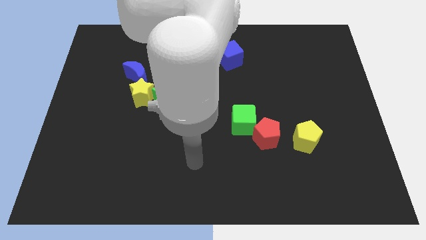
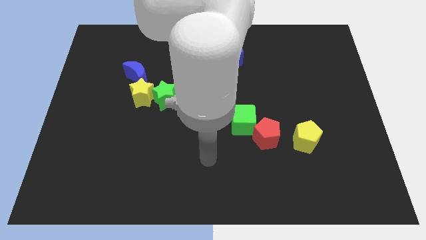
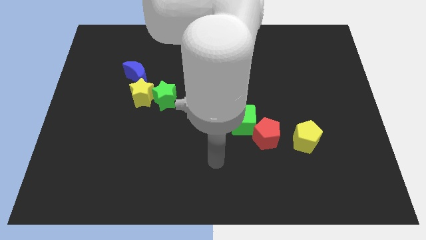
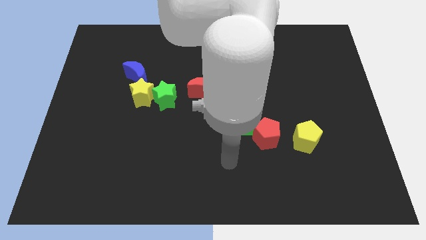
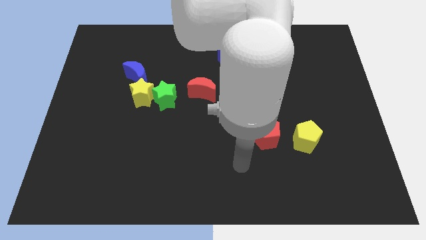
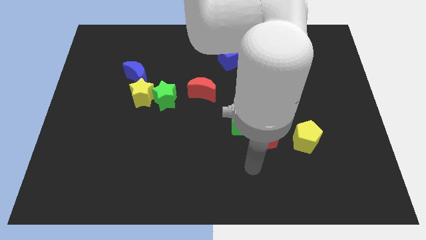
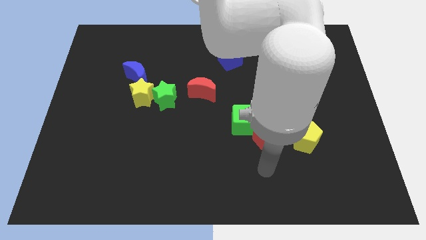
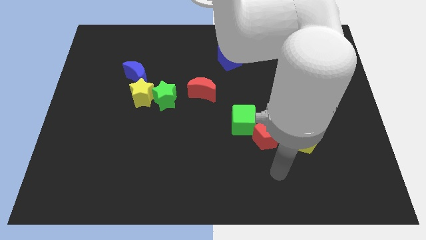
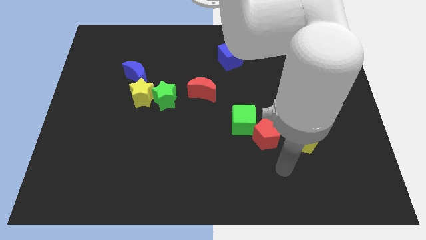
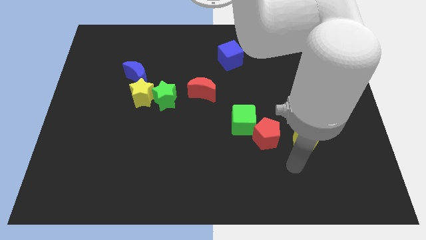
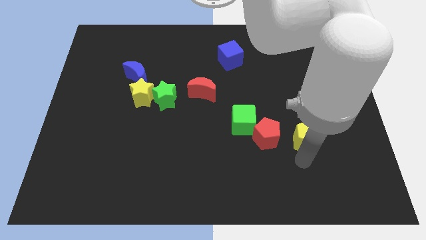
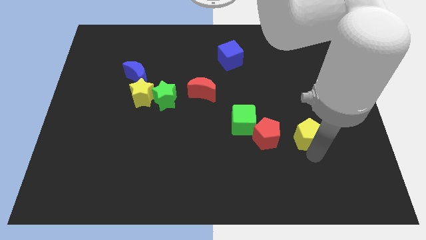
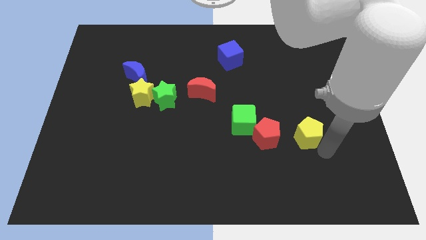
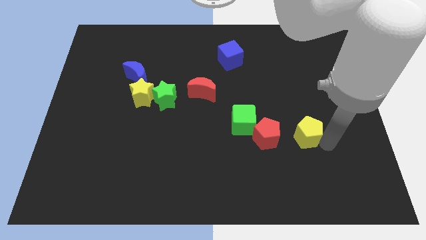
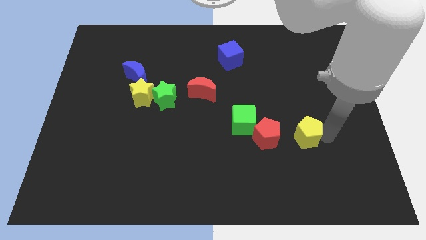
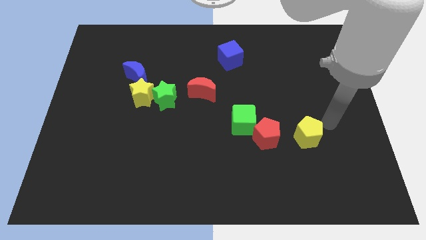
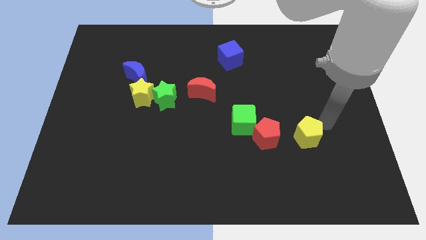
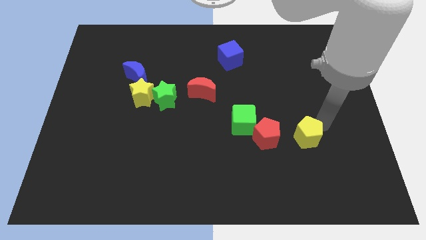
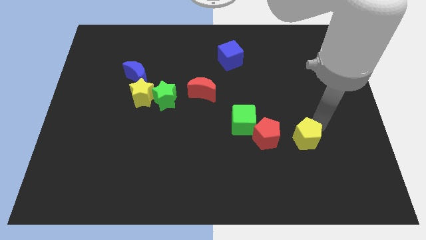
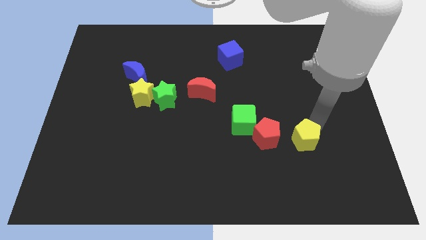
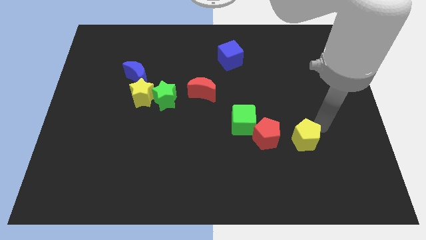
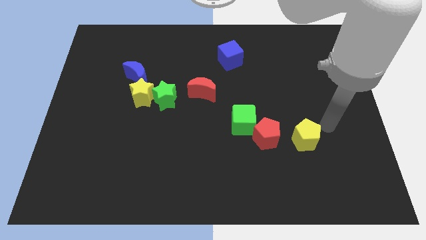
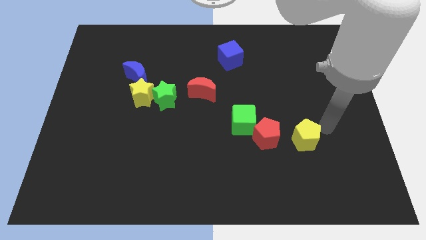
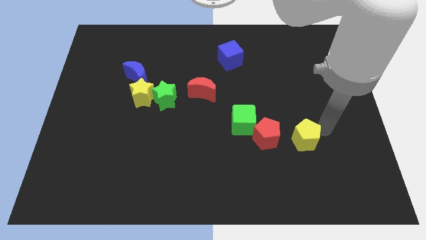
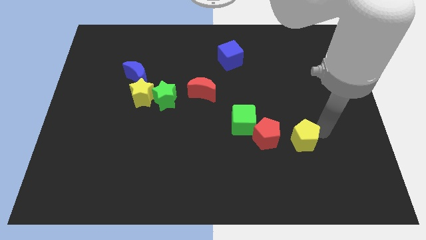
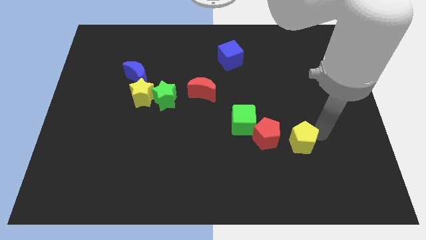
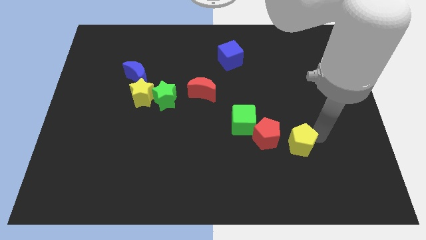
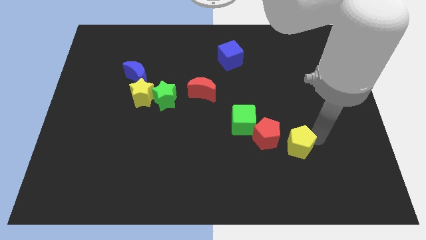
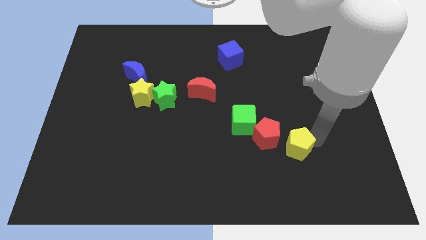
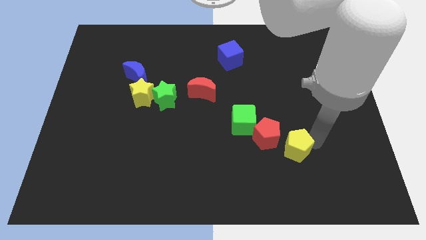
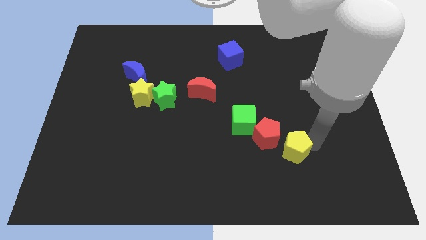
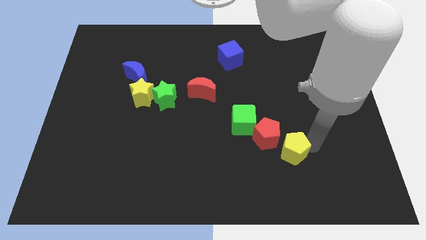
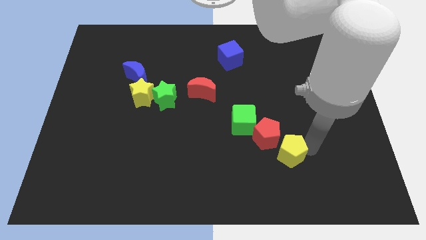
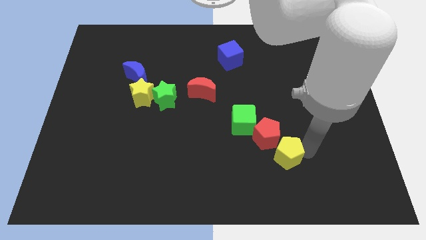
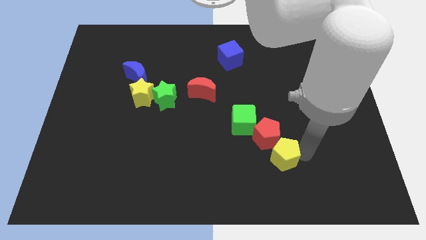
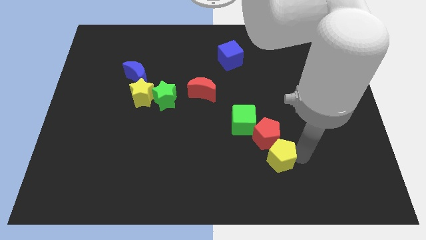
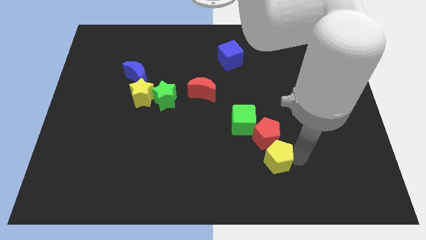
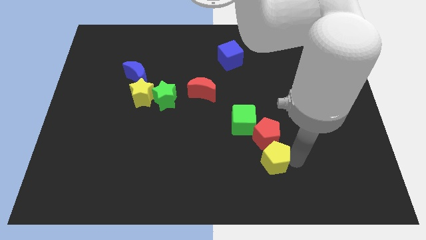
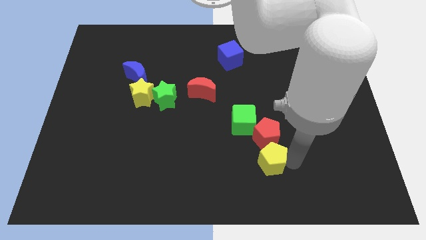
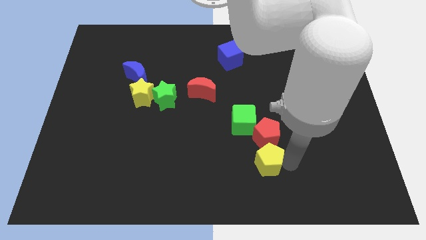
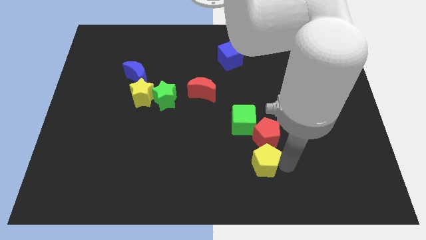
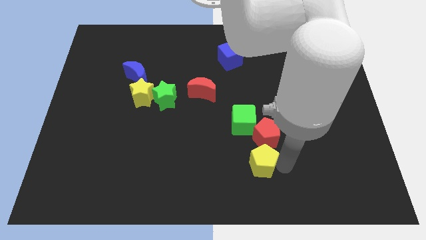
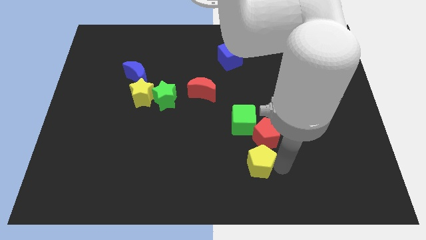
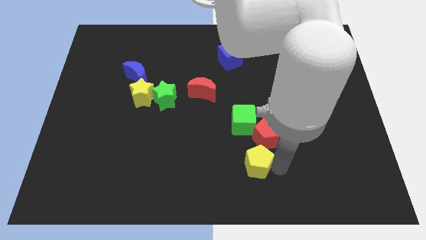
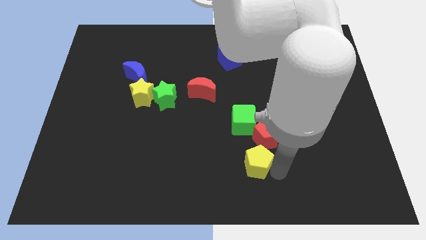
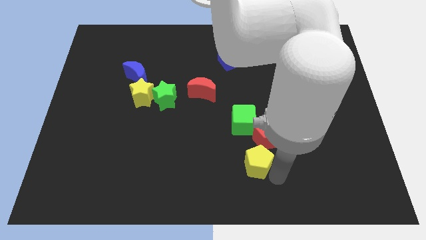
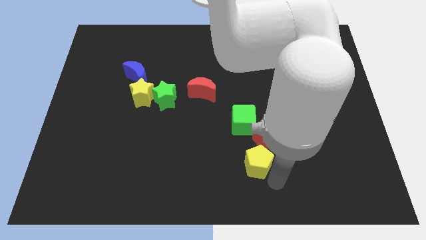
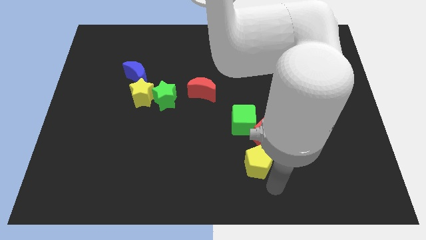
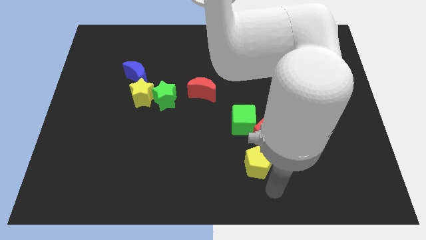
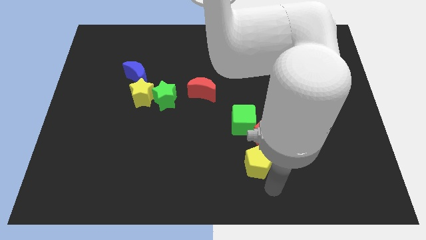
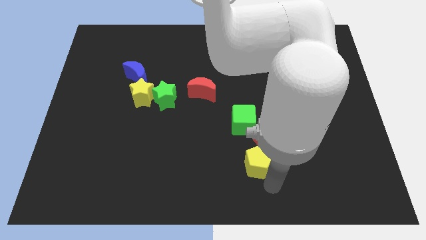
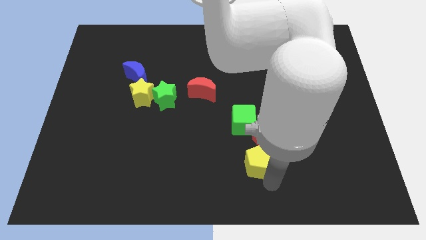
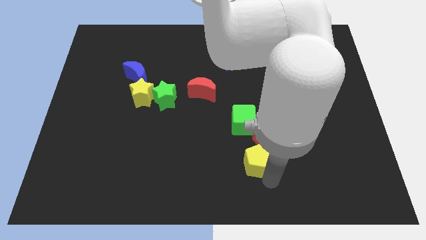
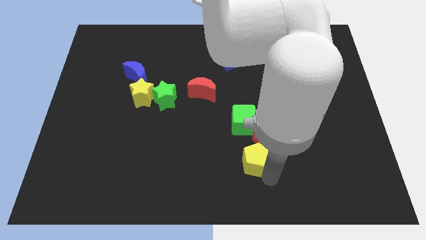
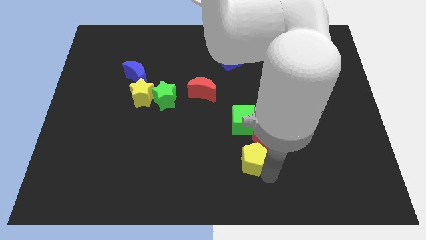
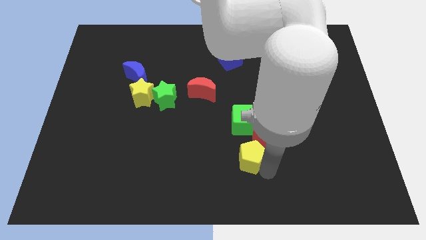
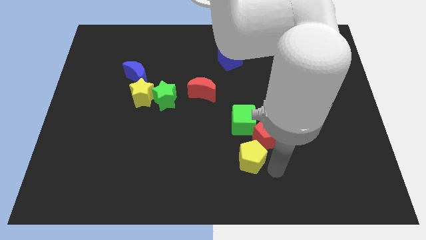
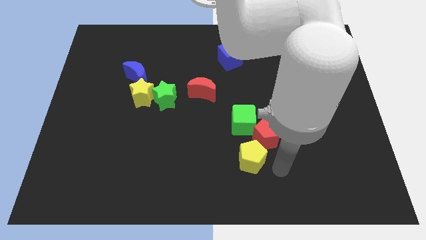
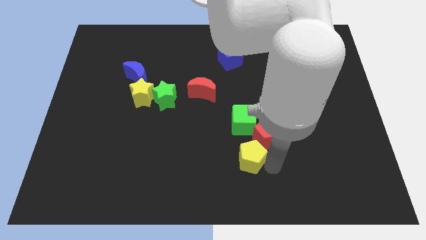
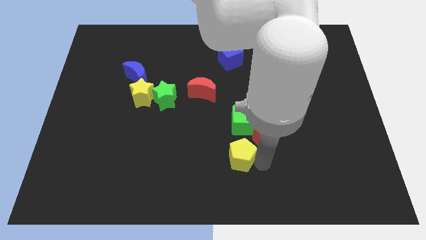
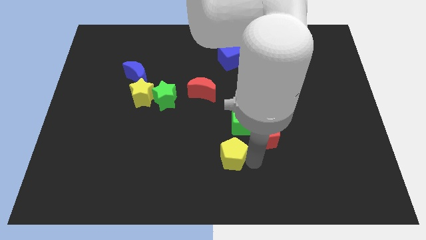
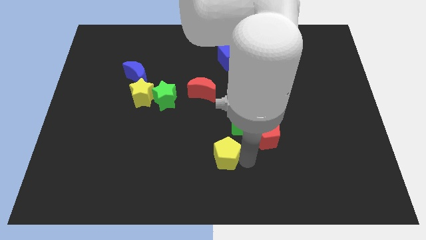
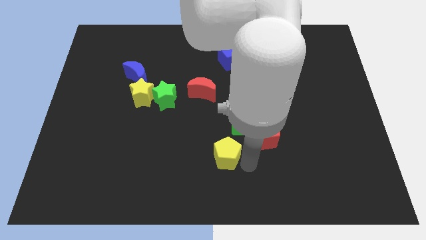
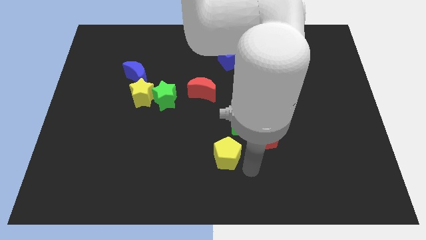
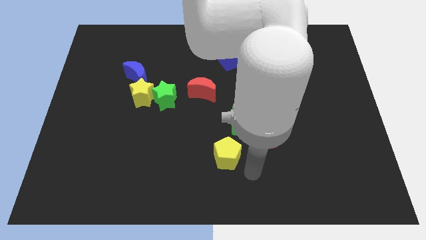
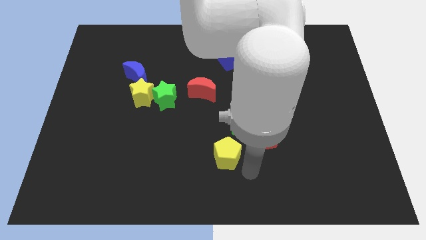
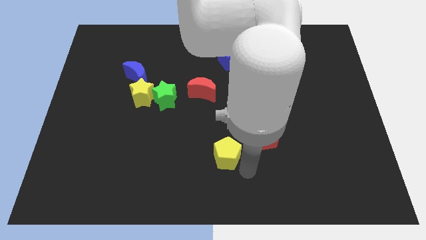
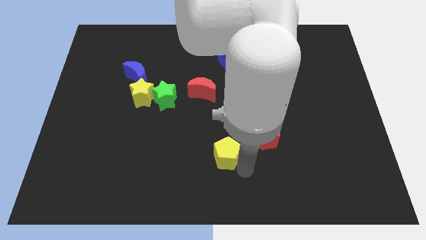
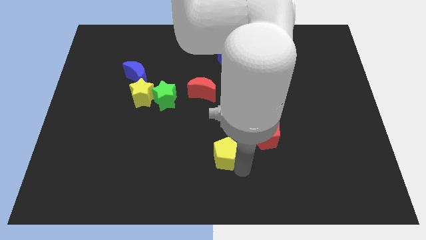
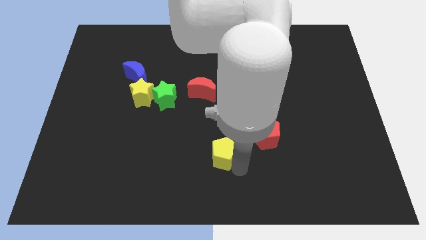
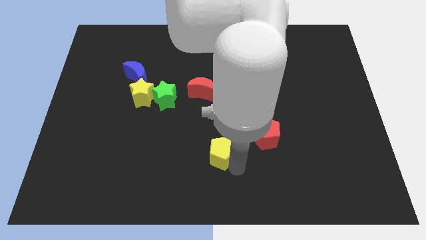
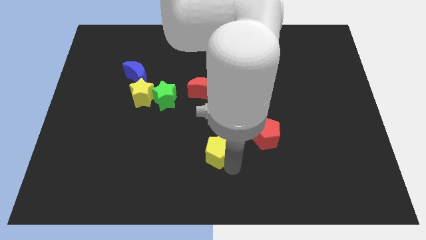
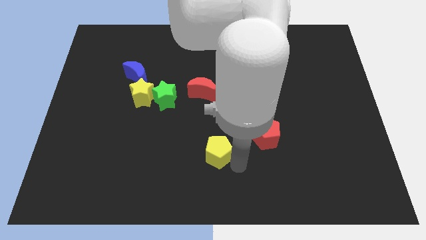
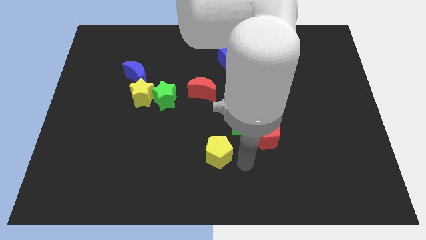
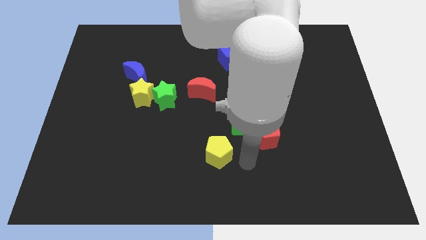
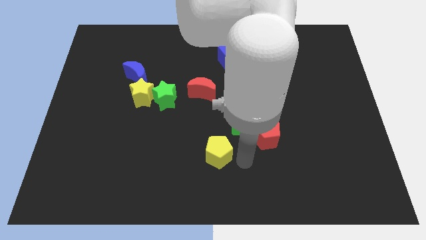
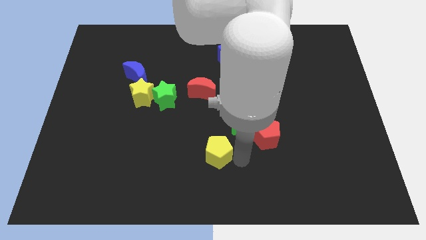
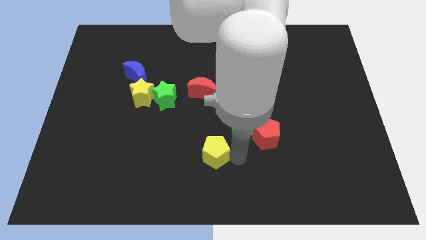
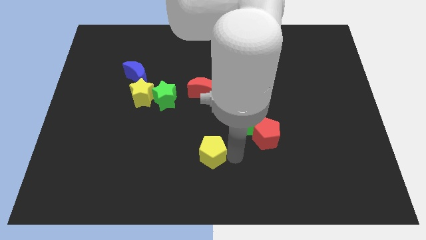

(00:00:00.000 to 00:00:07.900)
slide the yellow pentagon to the left

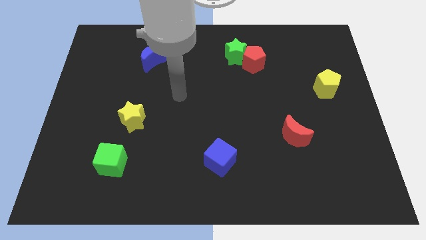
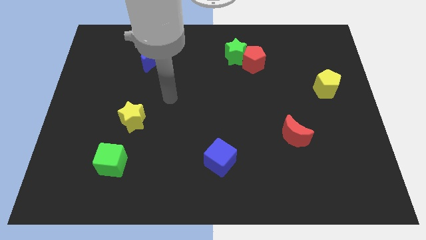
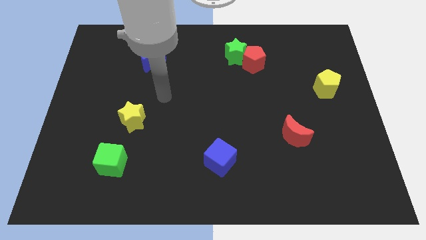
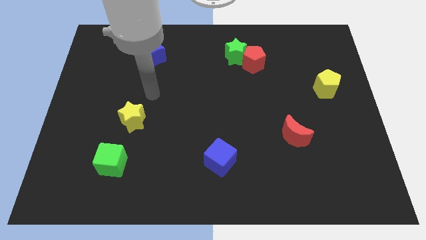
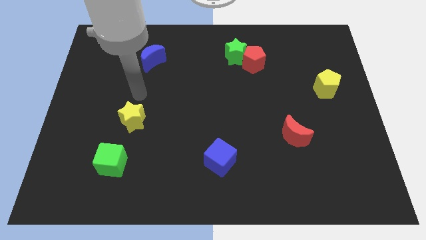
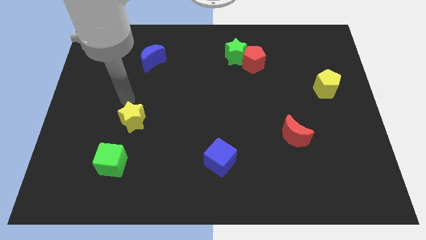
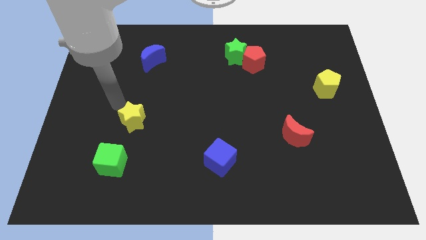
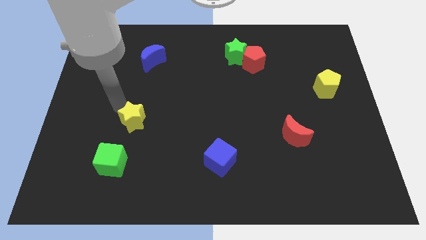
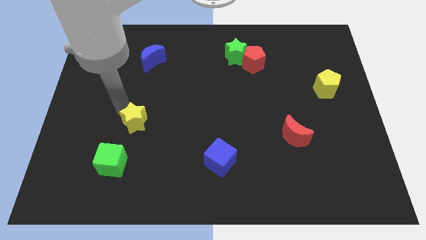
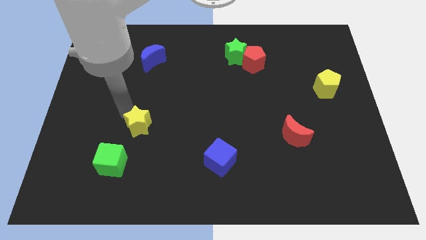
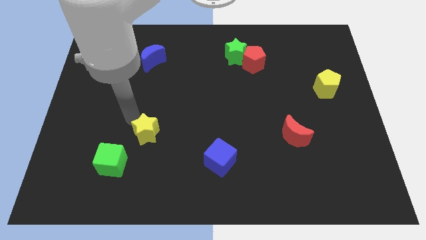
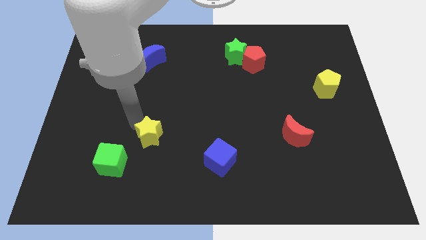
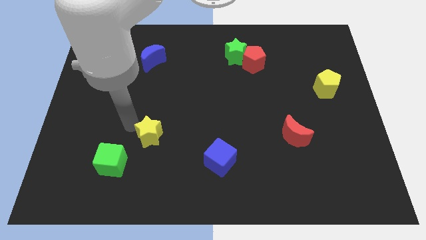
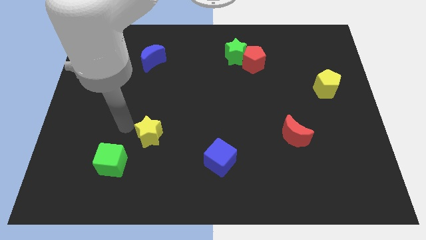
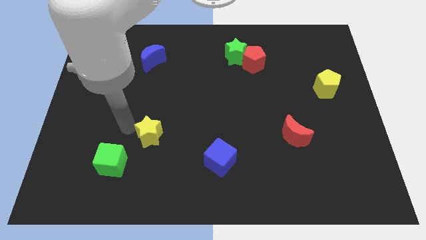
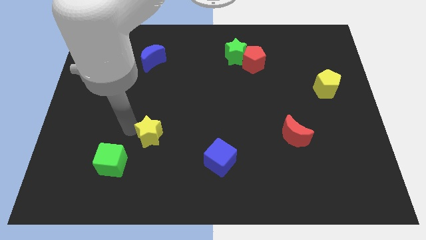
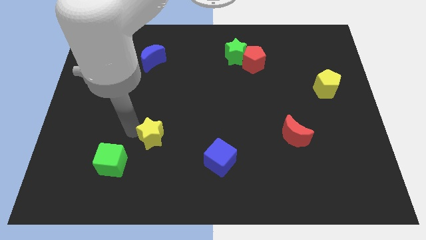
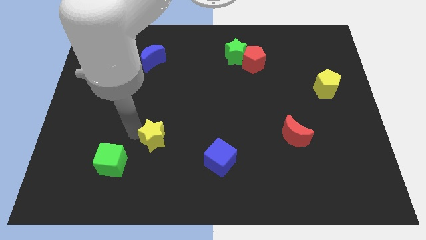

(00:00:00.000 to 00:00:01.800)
slightly slide the yellow star down and to the right diagonally
